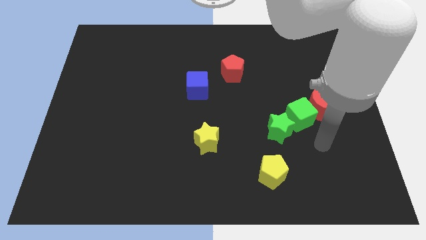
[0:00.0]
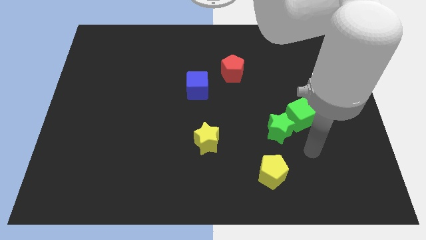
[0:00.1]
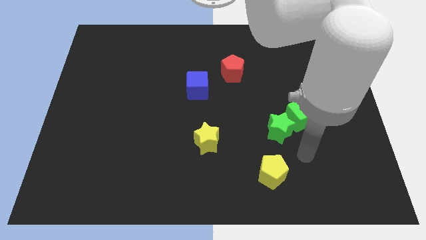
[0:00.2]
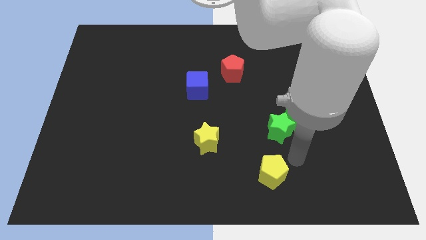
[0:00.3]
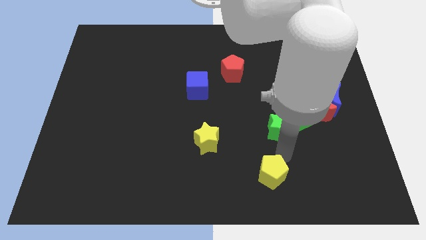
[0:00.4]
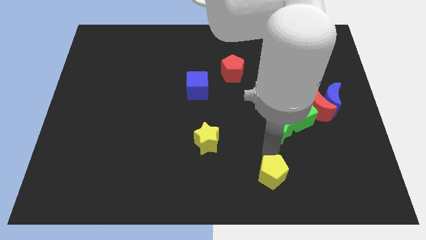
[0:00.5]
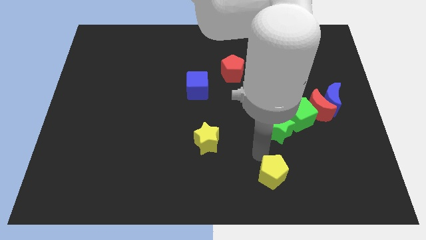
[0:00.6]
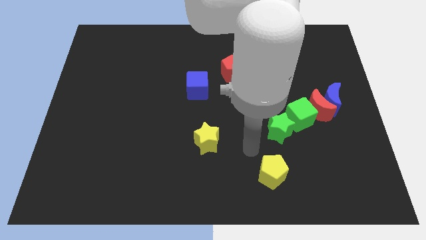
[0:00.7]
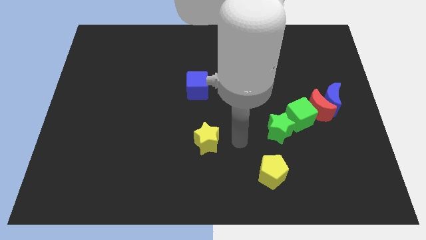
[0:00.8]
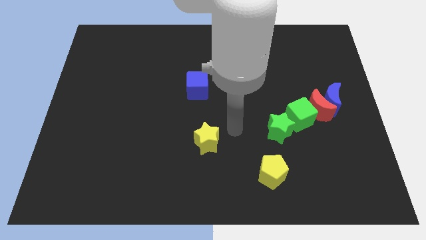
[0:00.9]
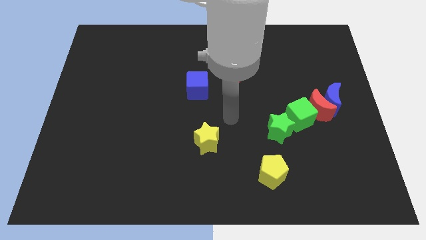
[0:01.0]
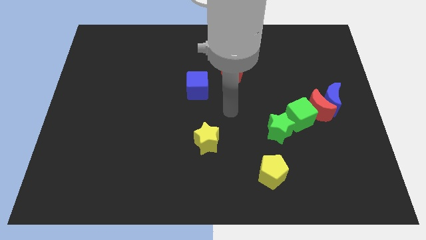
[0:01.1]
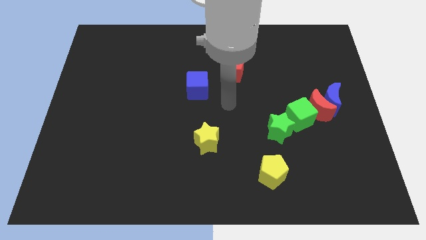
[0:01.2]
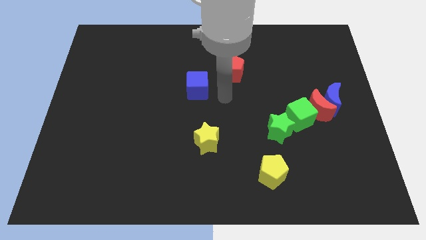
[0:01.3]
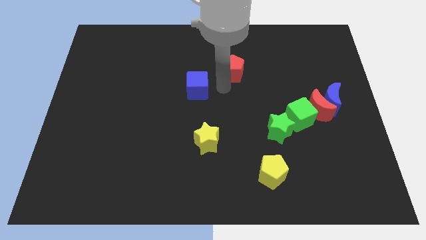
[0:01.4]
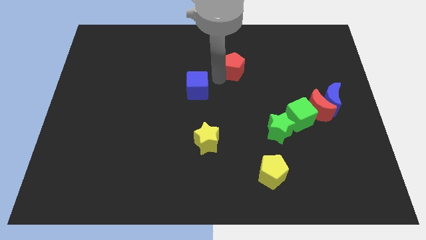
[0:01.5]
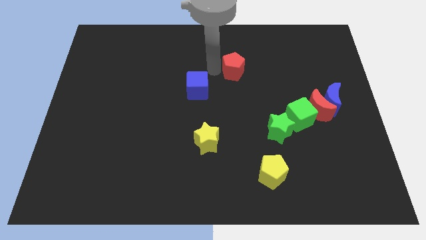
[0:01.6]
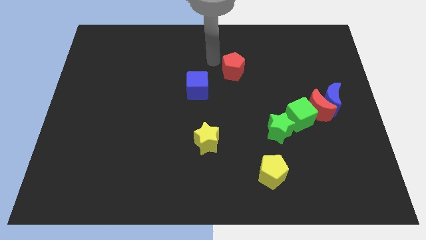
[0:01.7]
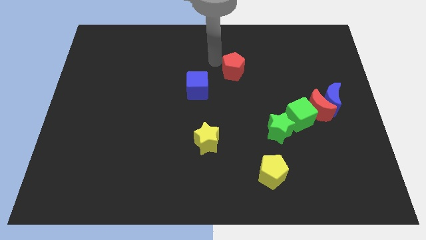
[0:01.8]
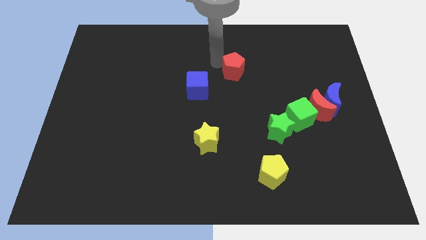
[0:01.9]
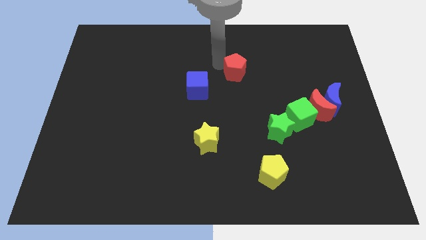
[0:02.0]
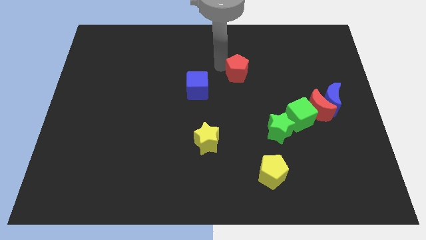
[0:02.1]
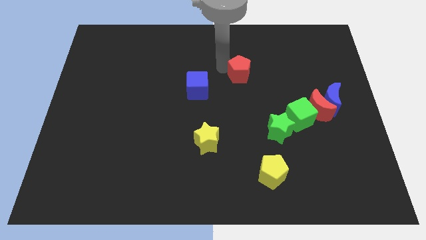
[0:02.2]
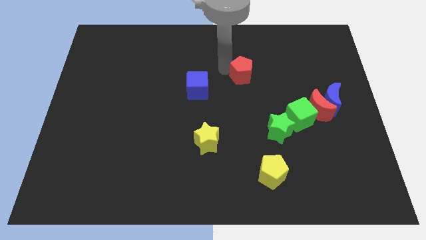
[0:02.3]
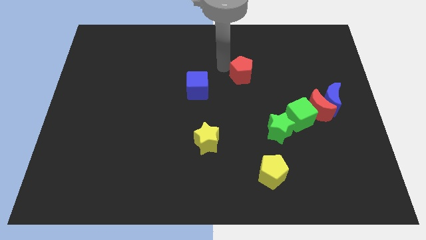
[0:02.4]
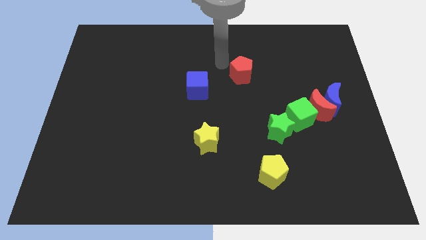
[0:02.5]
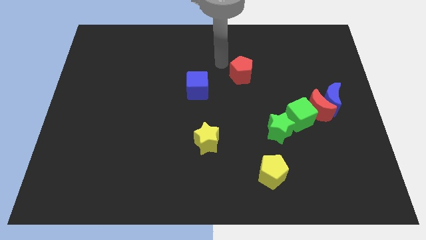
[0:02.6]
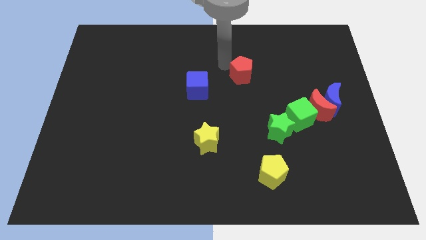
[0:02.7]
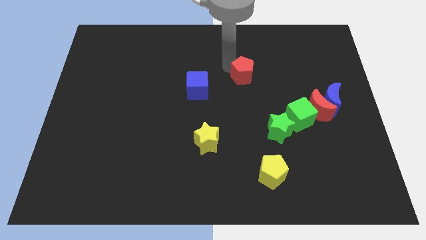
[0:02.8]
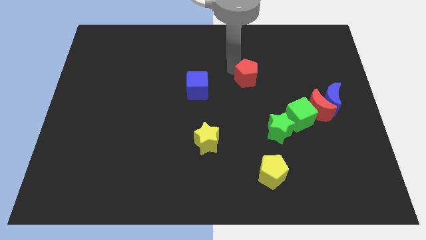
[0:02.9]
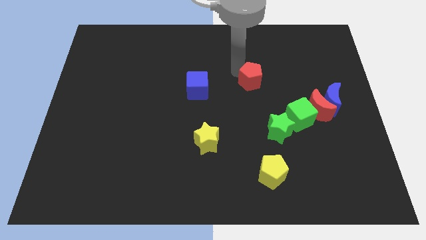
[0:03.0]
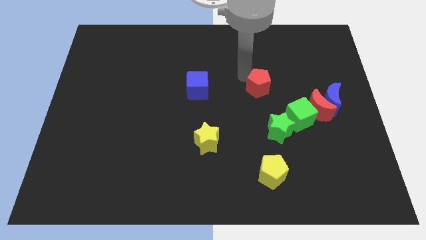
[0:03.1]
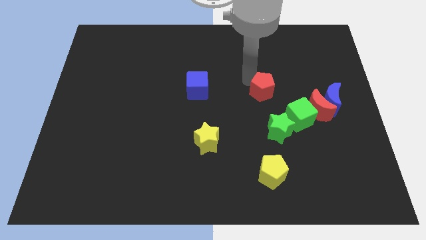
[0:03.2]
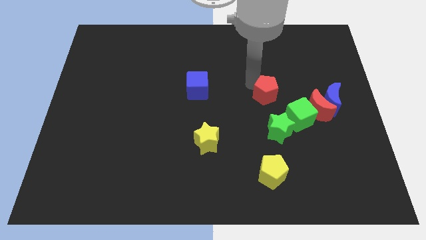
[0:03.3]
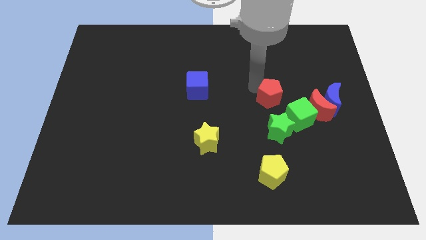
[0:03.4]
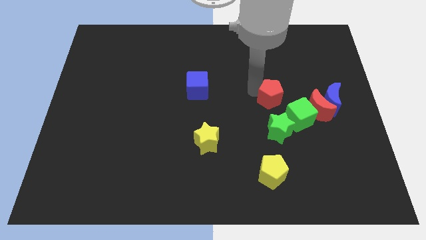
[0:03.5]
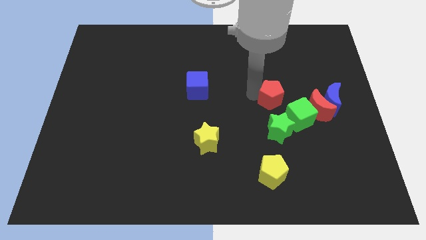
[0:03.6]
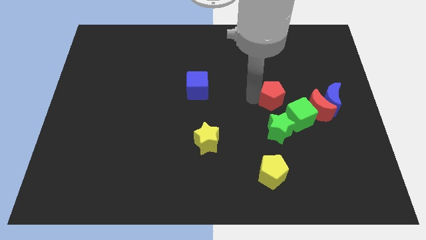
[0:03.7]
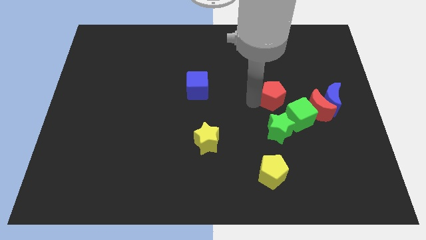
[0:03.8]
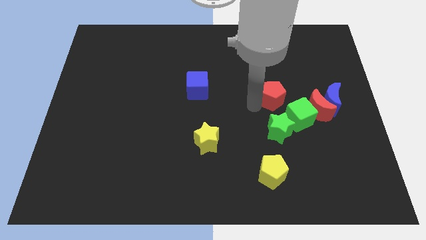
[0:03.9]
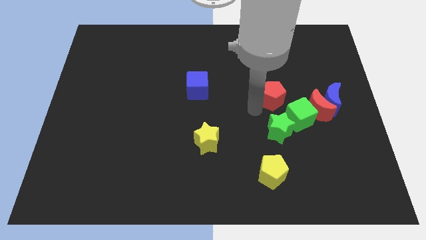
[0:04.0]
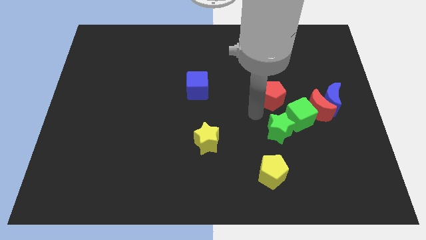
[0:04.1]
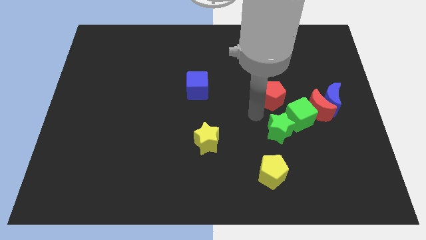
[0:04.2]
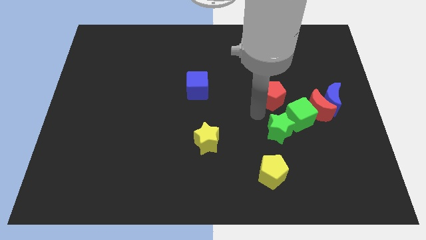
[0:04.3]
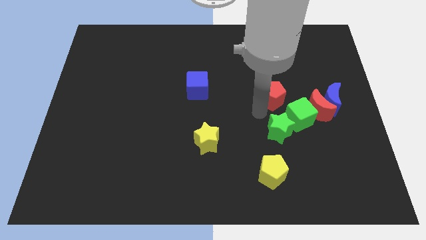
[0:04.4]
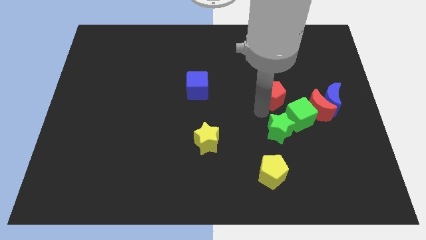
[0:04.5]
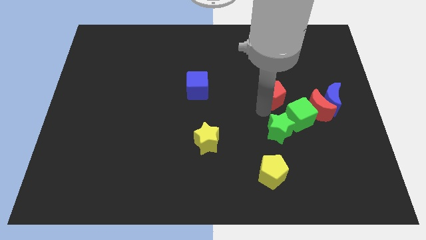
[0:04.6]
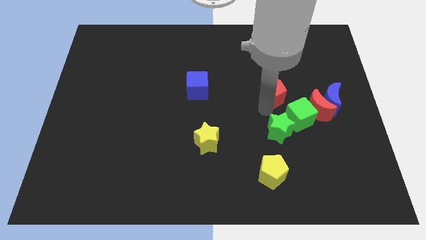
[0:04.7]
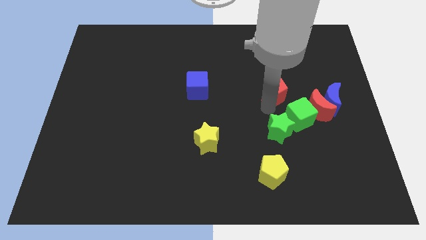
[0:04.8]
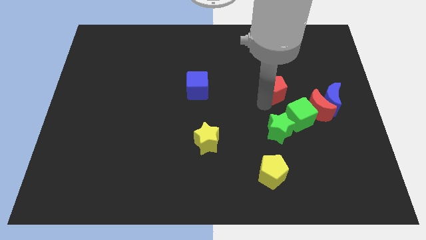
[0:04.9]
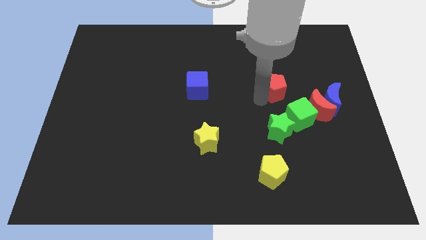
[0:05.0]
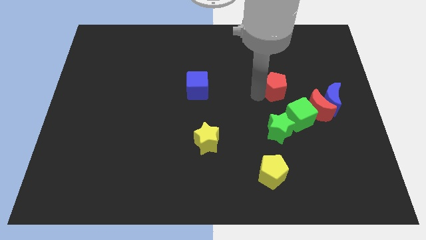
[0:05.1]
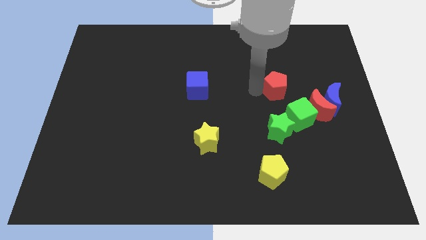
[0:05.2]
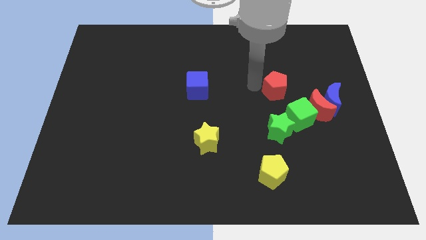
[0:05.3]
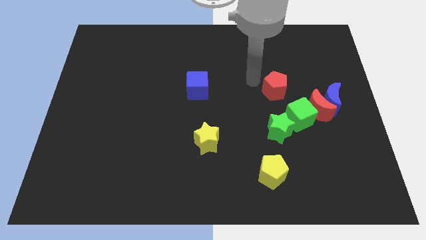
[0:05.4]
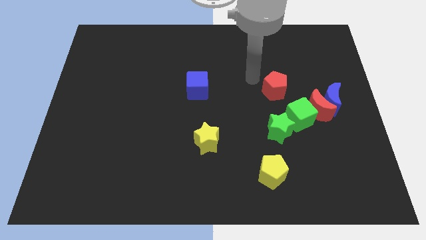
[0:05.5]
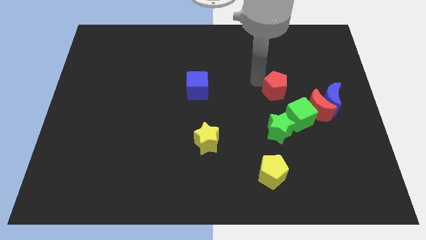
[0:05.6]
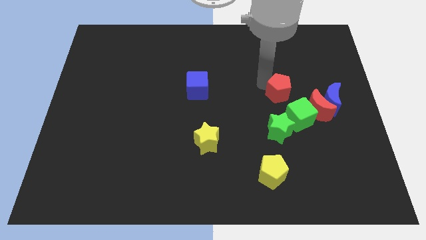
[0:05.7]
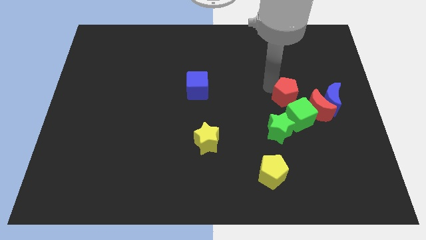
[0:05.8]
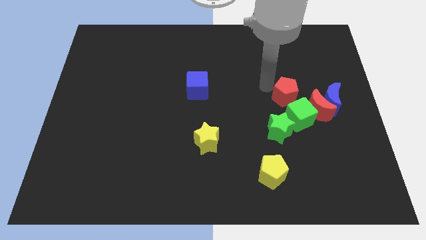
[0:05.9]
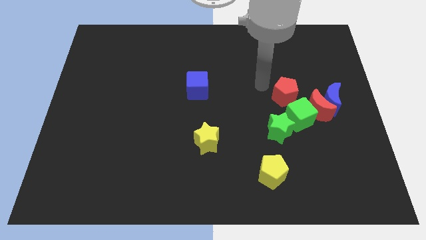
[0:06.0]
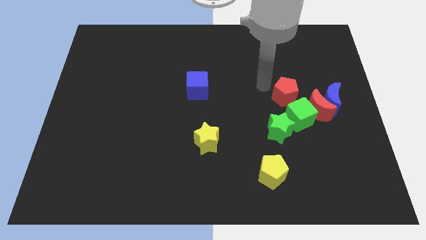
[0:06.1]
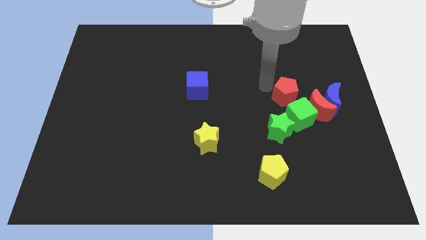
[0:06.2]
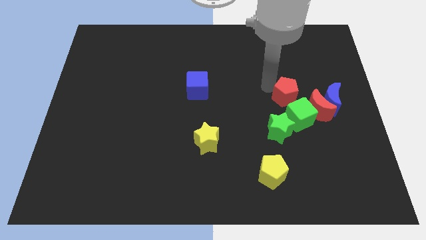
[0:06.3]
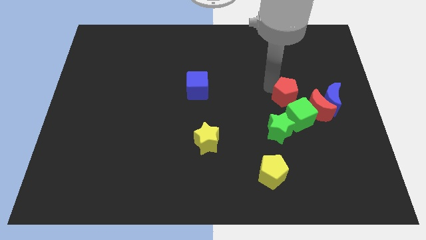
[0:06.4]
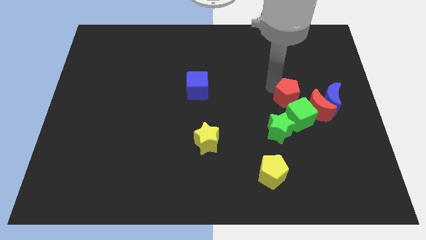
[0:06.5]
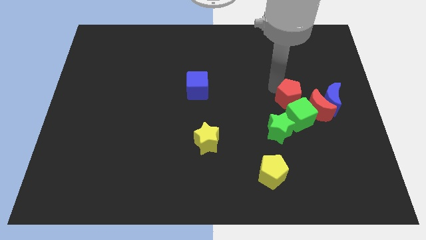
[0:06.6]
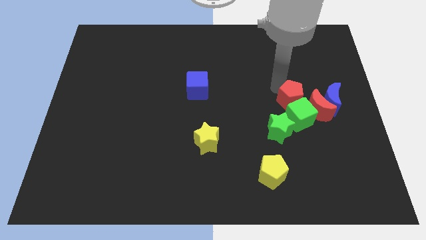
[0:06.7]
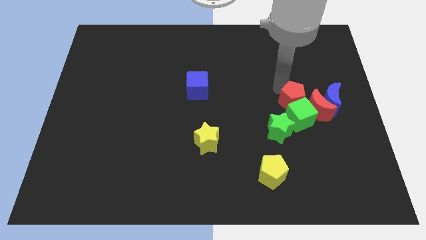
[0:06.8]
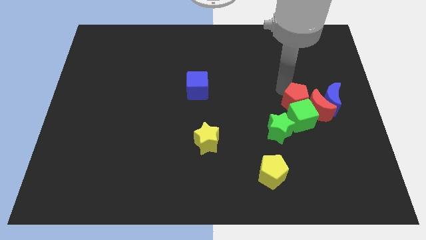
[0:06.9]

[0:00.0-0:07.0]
slide the red pentagon next to the red moon

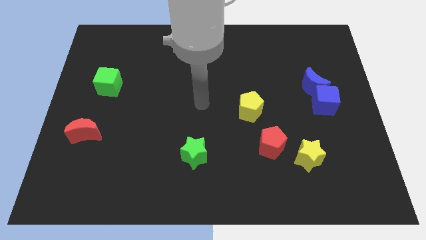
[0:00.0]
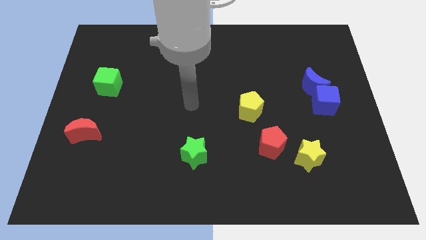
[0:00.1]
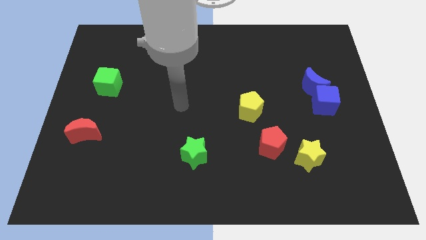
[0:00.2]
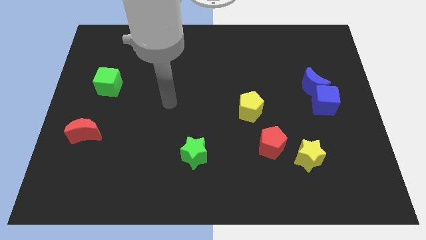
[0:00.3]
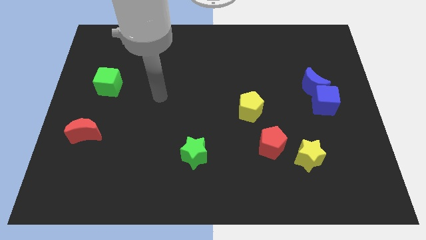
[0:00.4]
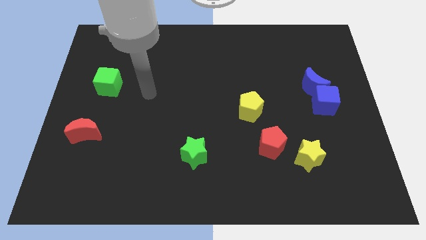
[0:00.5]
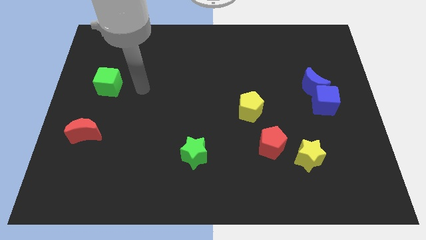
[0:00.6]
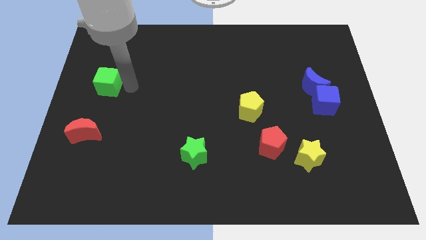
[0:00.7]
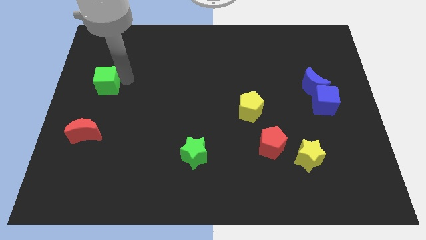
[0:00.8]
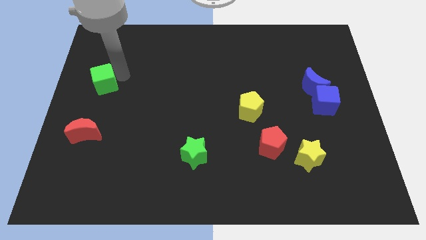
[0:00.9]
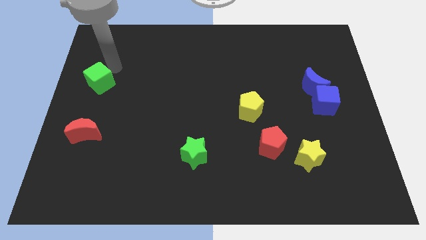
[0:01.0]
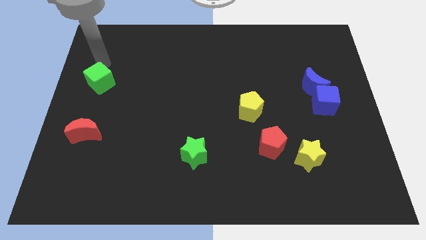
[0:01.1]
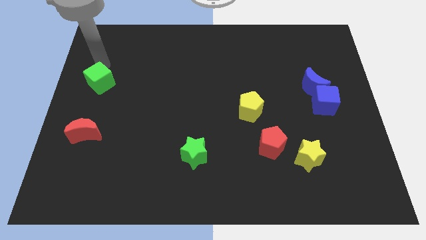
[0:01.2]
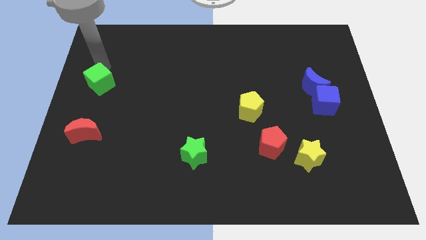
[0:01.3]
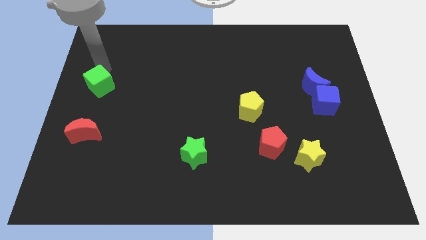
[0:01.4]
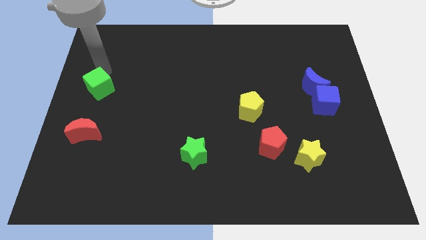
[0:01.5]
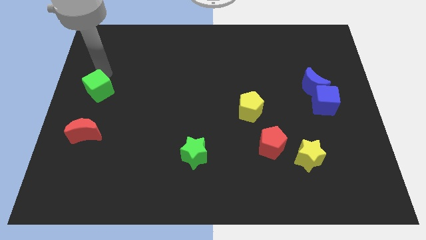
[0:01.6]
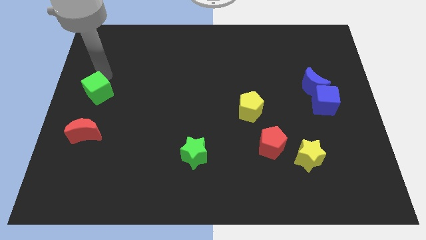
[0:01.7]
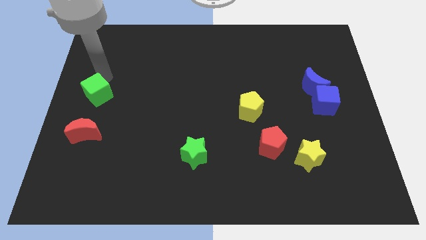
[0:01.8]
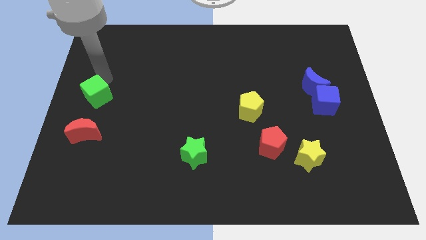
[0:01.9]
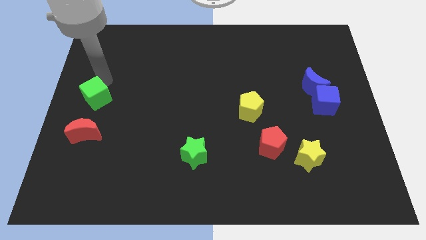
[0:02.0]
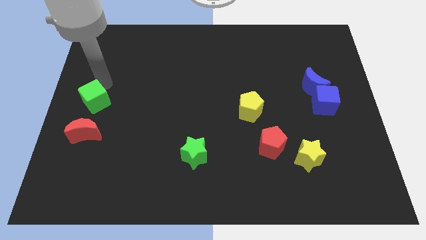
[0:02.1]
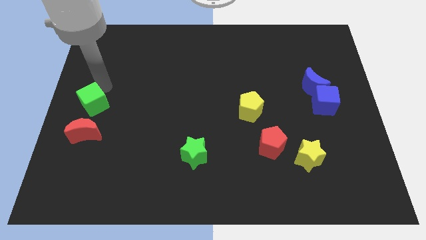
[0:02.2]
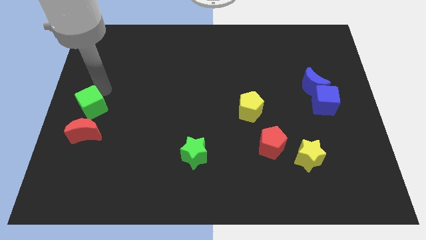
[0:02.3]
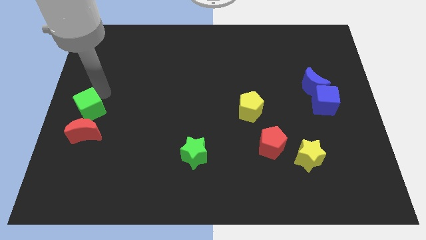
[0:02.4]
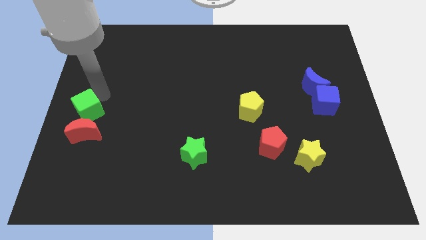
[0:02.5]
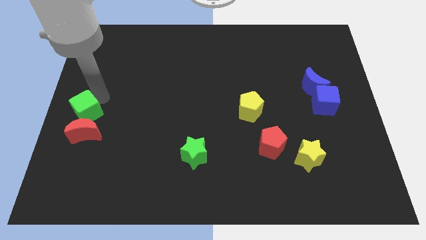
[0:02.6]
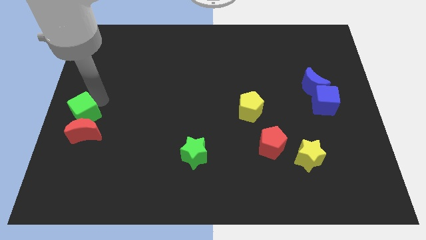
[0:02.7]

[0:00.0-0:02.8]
slide the green cube towards the red moon
